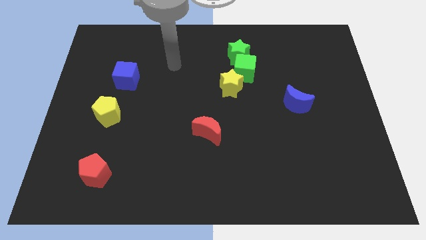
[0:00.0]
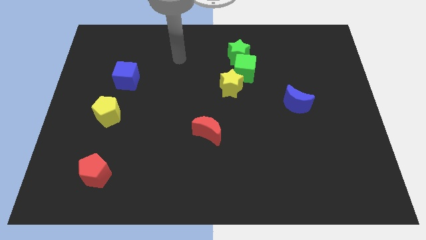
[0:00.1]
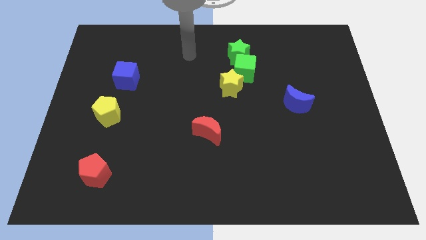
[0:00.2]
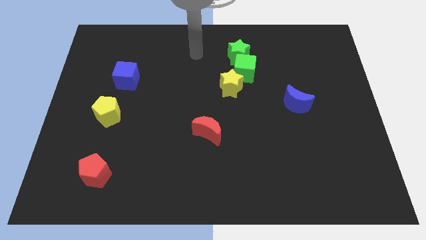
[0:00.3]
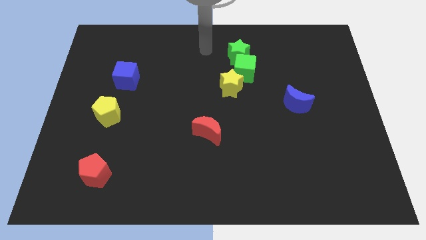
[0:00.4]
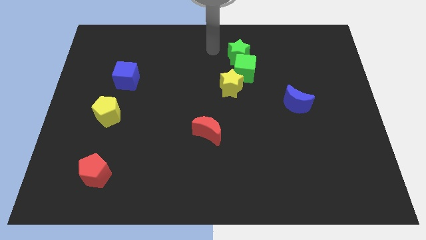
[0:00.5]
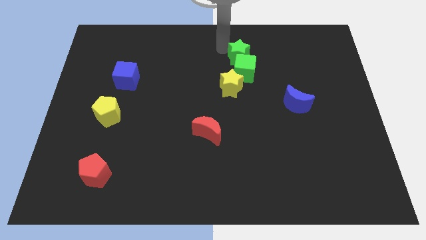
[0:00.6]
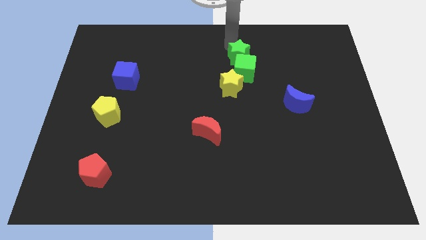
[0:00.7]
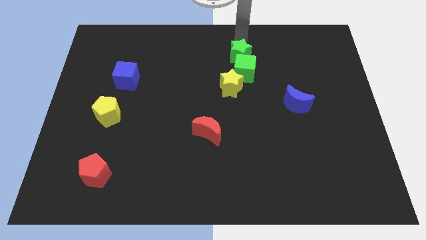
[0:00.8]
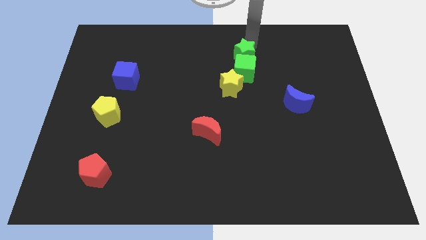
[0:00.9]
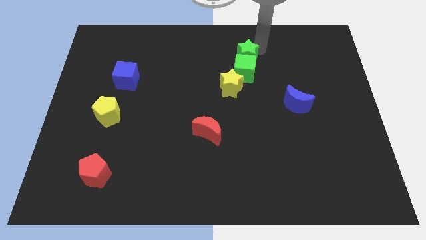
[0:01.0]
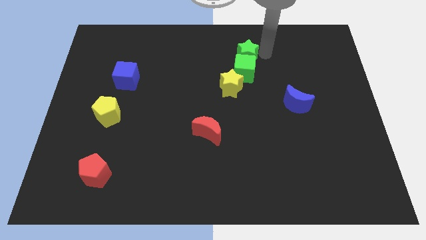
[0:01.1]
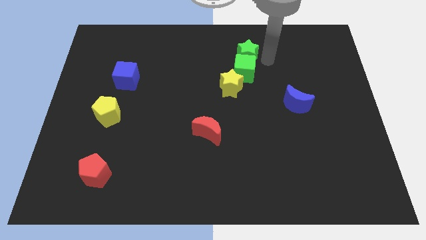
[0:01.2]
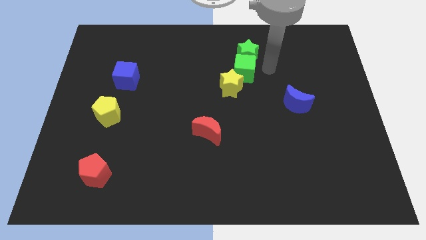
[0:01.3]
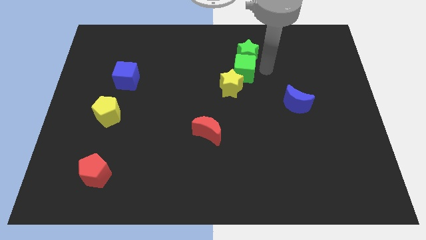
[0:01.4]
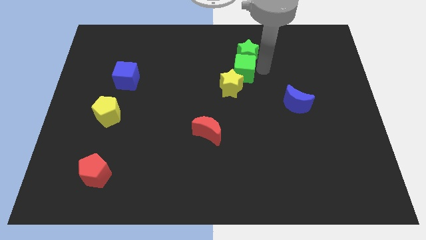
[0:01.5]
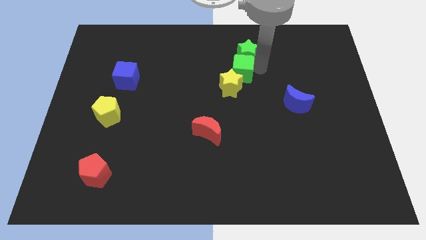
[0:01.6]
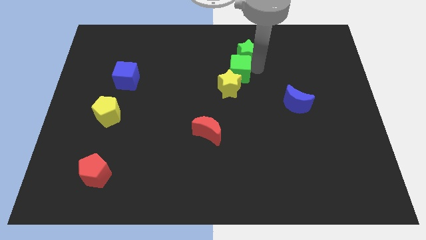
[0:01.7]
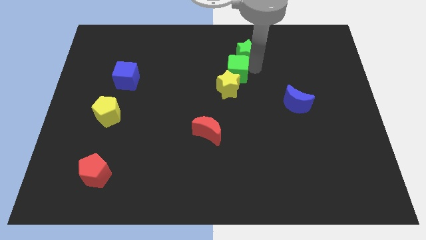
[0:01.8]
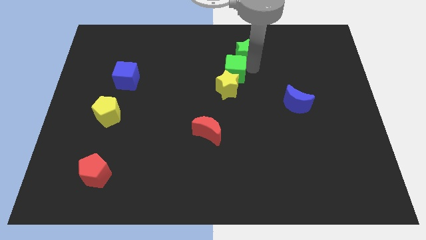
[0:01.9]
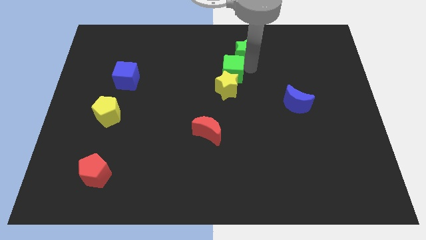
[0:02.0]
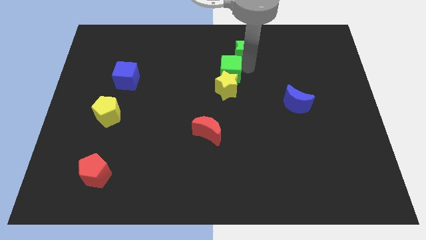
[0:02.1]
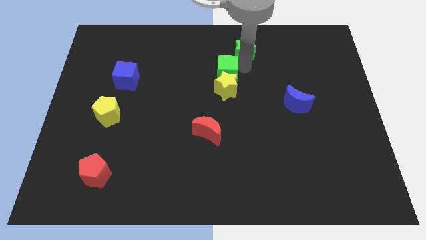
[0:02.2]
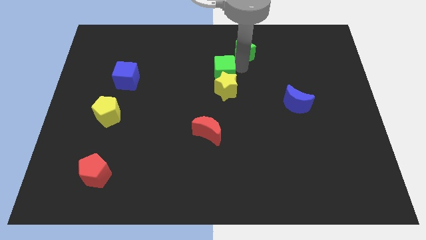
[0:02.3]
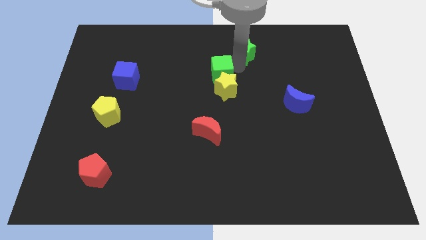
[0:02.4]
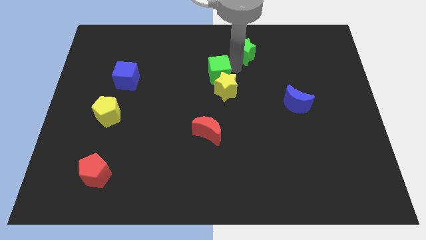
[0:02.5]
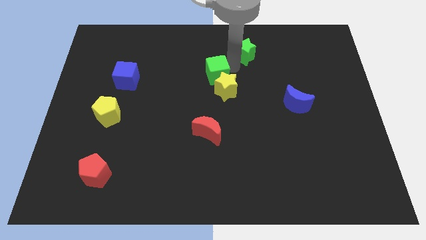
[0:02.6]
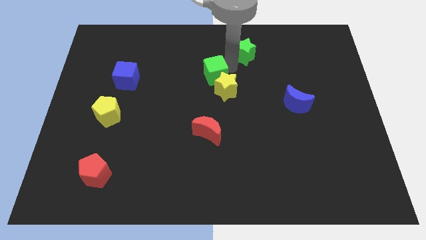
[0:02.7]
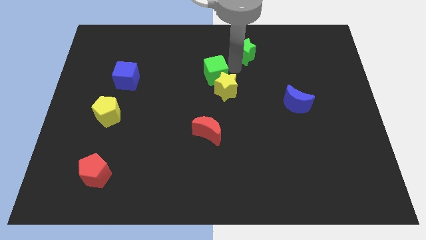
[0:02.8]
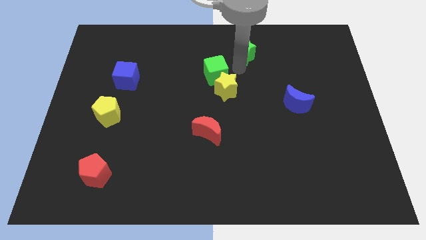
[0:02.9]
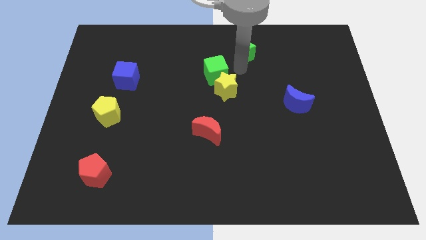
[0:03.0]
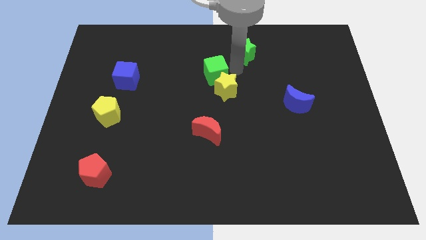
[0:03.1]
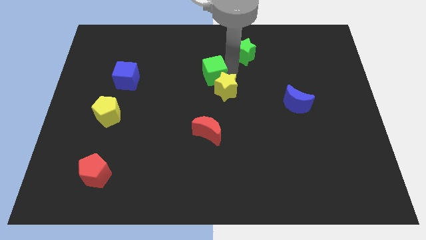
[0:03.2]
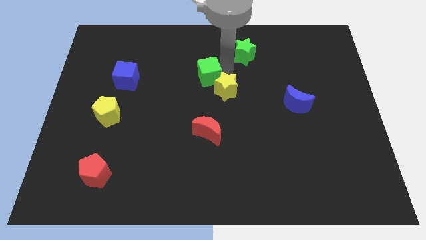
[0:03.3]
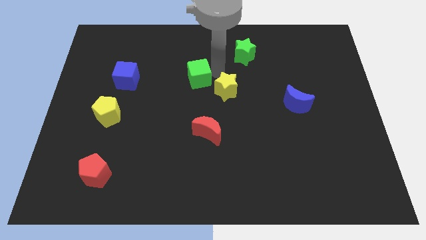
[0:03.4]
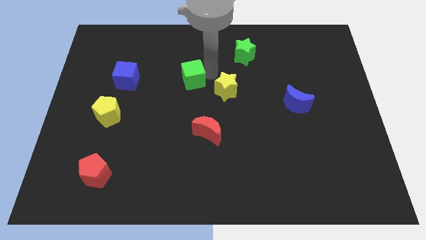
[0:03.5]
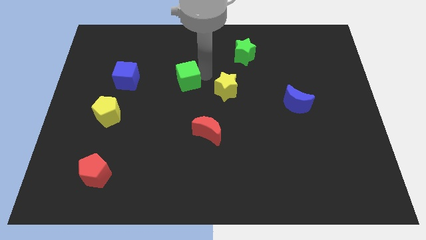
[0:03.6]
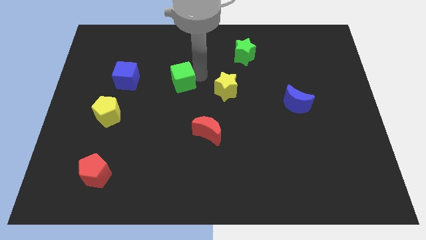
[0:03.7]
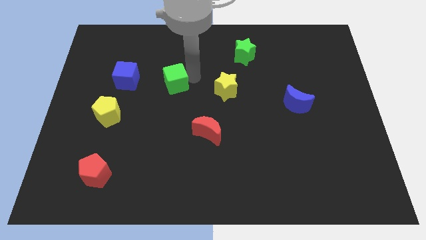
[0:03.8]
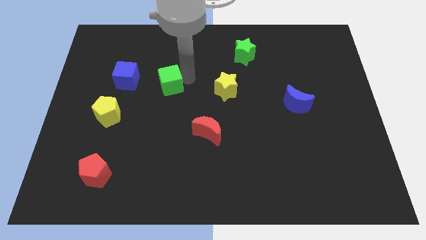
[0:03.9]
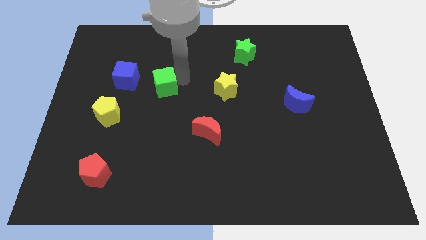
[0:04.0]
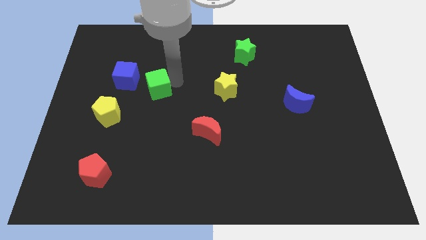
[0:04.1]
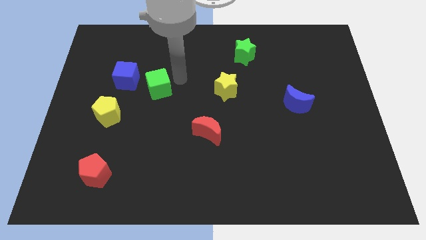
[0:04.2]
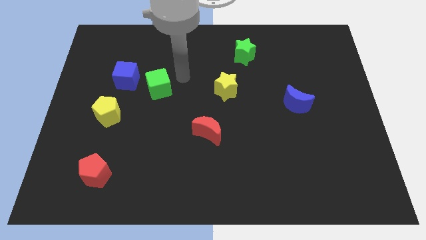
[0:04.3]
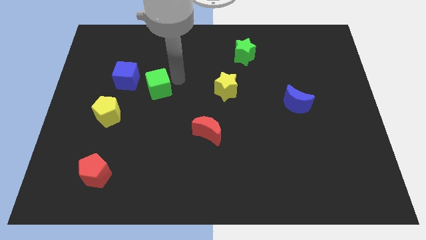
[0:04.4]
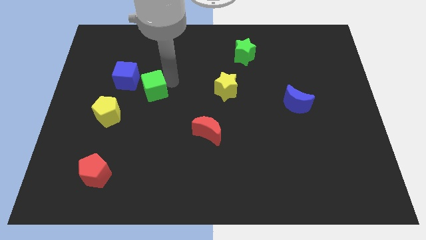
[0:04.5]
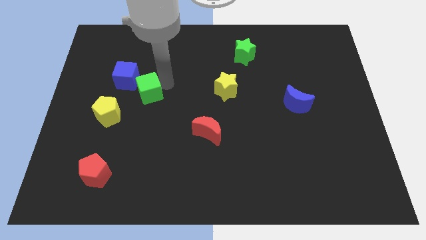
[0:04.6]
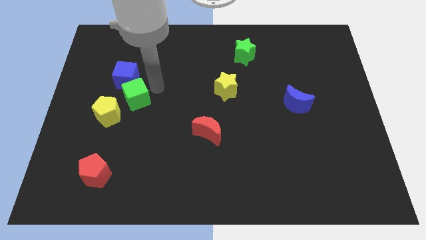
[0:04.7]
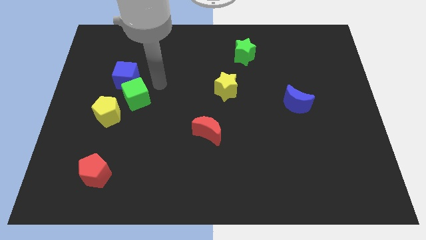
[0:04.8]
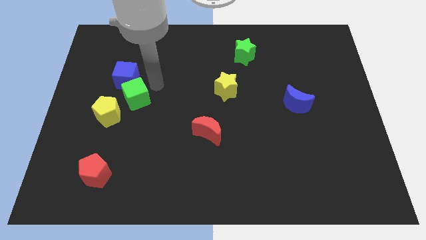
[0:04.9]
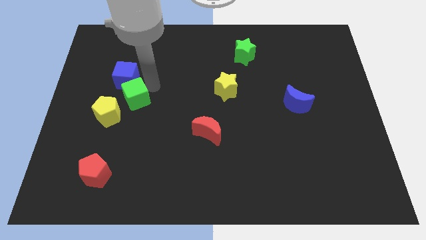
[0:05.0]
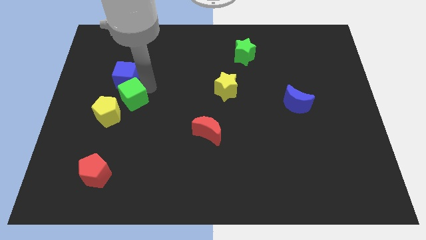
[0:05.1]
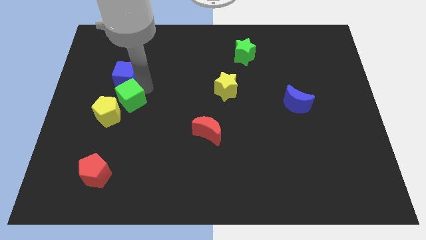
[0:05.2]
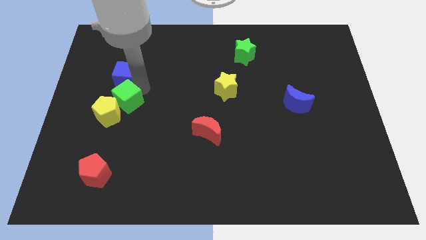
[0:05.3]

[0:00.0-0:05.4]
put the green cube to the yellow pentagon

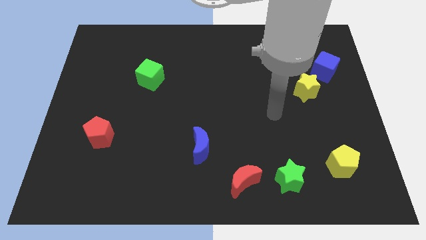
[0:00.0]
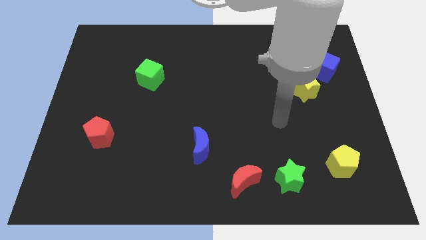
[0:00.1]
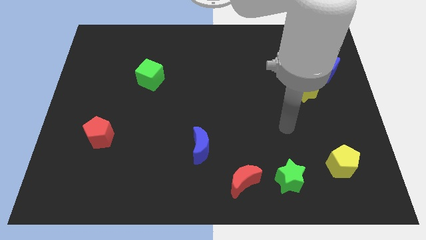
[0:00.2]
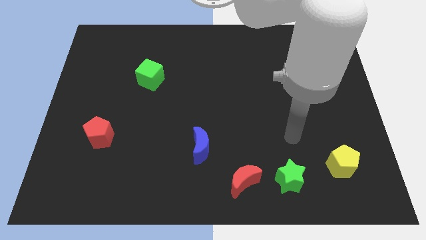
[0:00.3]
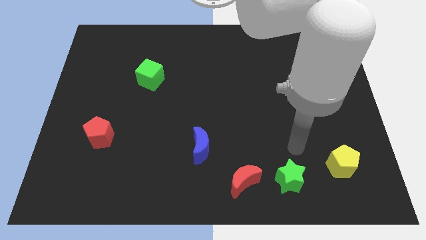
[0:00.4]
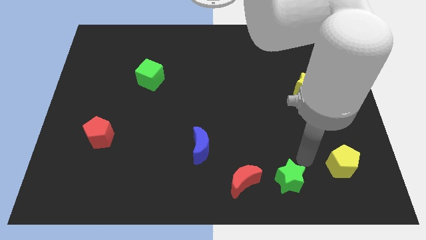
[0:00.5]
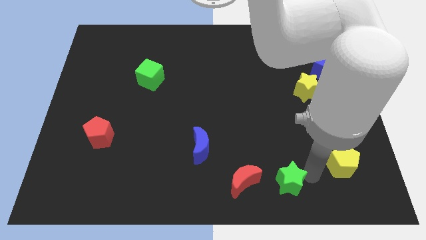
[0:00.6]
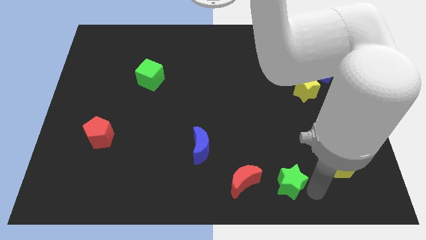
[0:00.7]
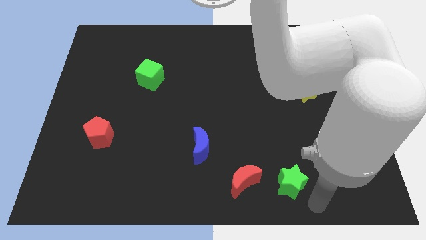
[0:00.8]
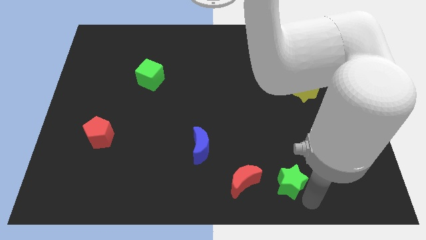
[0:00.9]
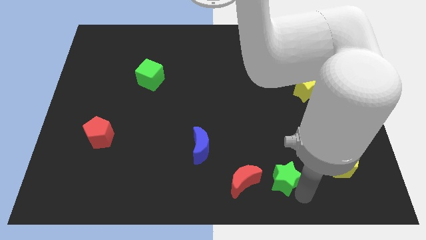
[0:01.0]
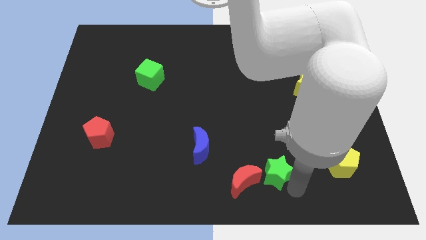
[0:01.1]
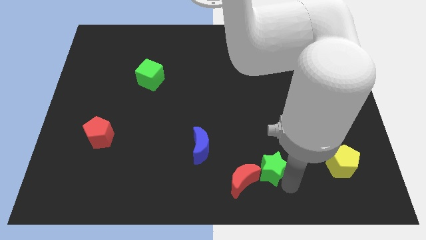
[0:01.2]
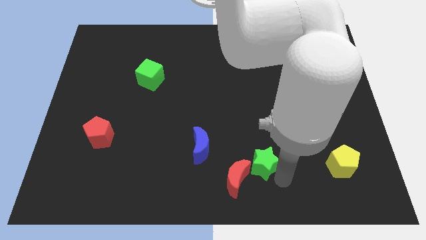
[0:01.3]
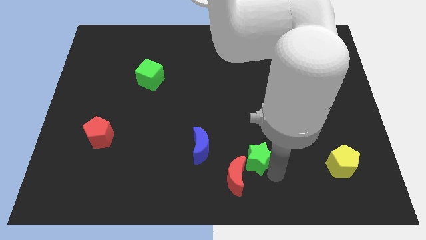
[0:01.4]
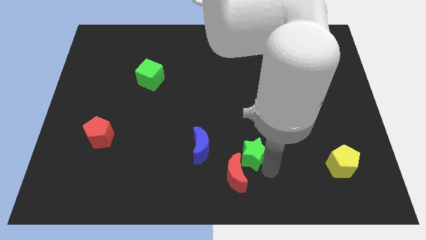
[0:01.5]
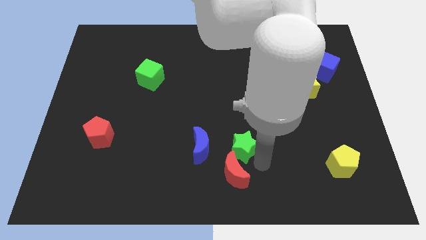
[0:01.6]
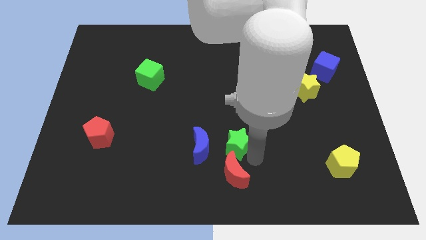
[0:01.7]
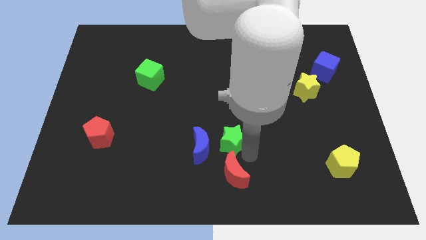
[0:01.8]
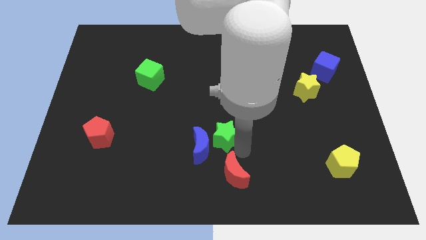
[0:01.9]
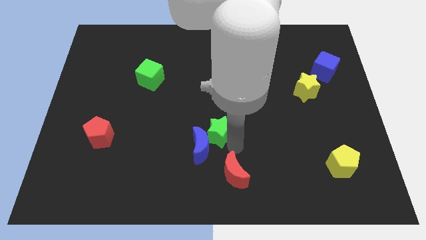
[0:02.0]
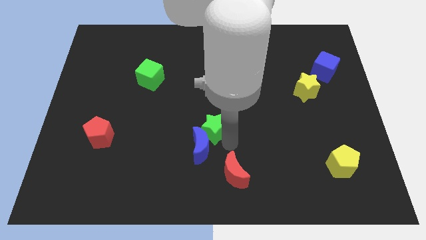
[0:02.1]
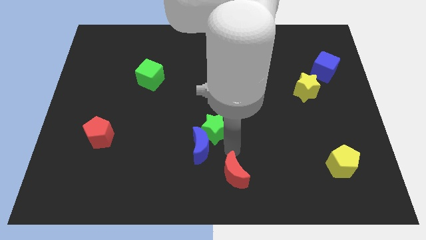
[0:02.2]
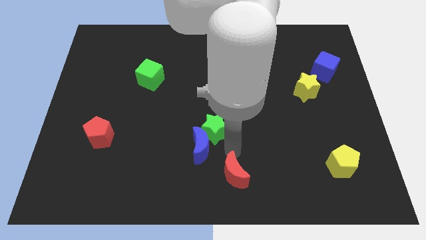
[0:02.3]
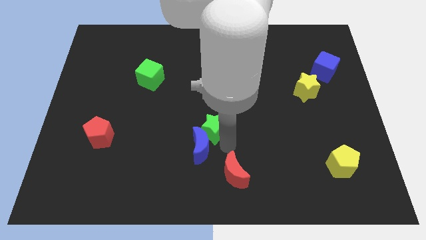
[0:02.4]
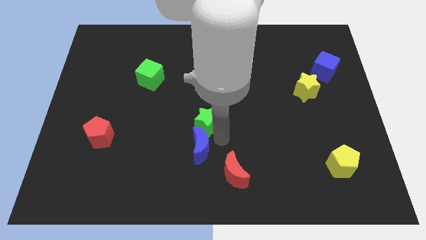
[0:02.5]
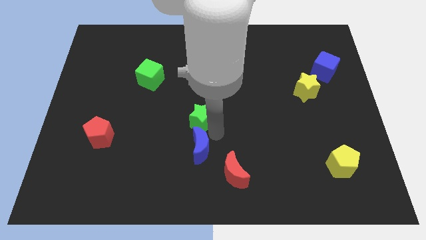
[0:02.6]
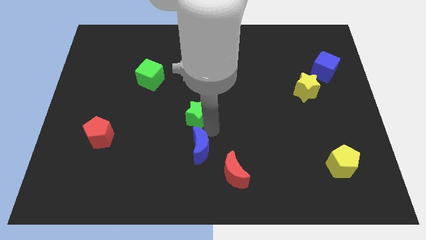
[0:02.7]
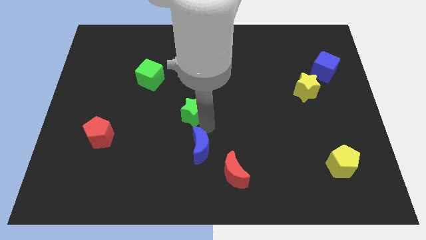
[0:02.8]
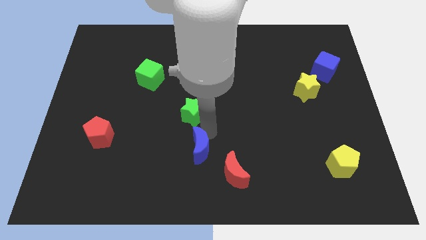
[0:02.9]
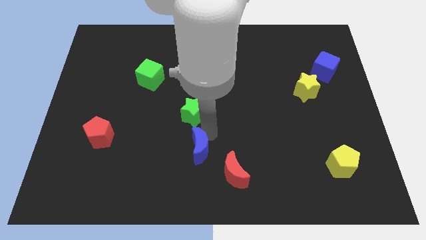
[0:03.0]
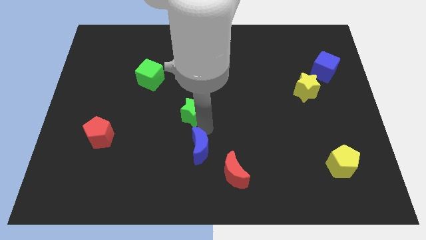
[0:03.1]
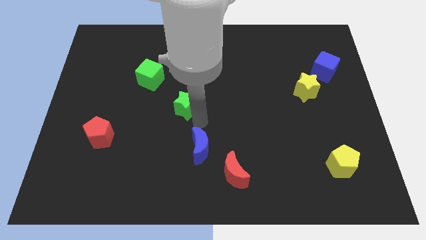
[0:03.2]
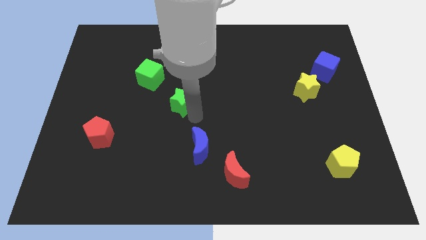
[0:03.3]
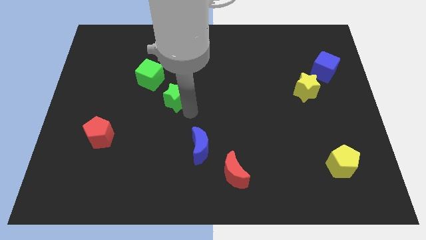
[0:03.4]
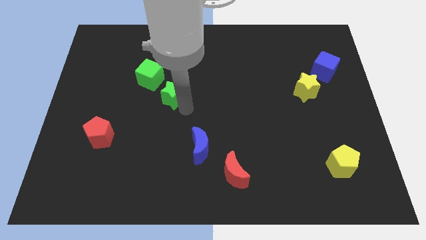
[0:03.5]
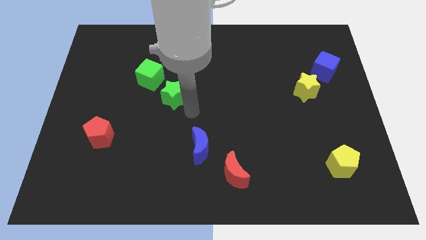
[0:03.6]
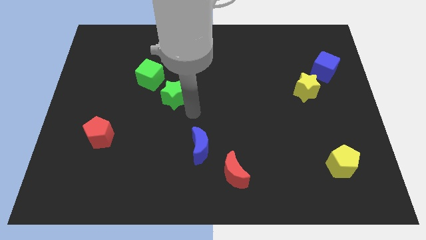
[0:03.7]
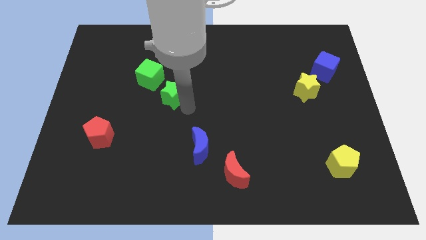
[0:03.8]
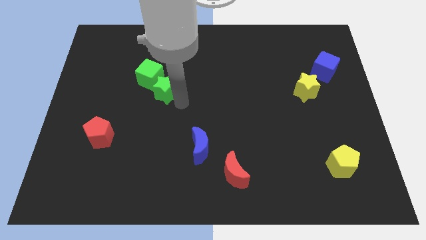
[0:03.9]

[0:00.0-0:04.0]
slide the green star to the green cube
